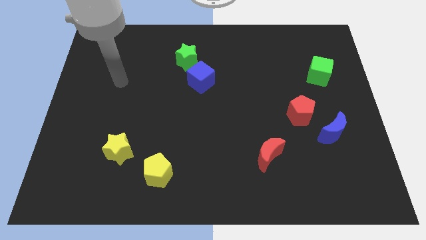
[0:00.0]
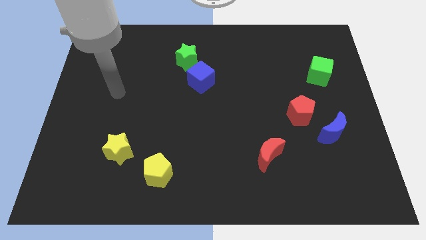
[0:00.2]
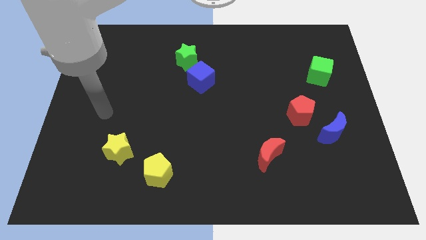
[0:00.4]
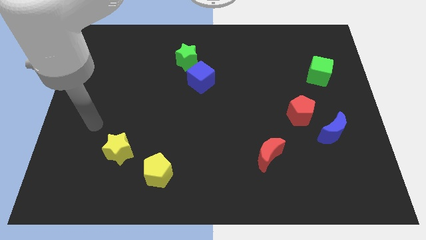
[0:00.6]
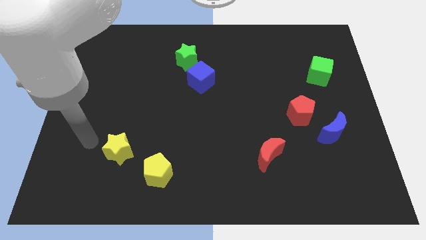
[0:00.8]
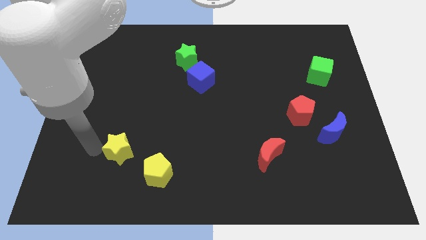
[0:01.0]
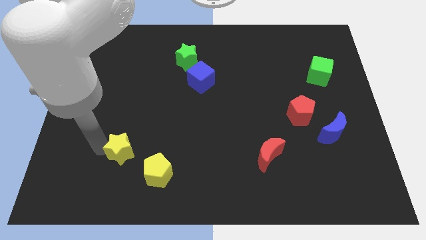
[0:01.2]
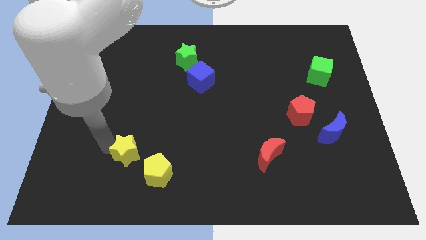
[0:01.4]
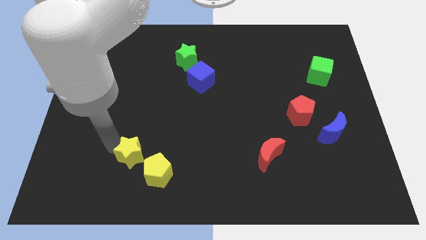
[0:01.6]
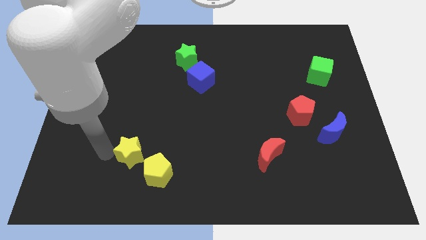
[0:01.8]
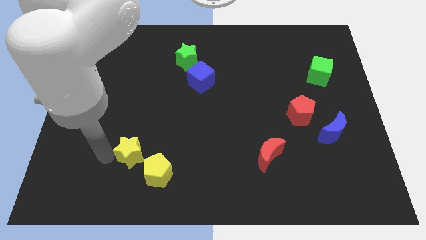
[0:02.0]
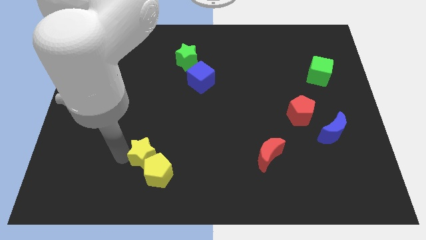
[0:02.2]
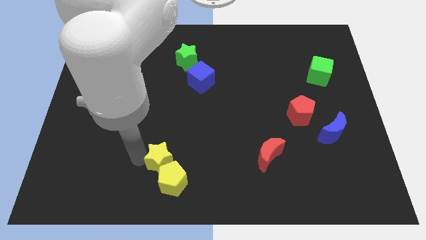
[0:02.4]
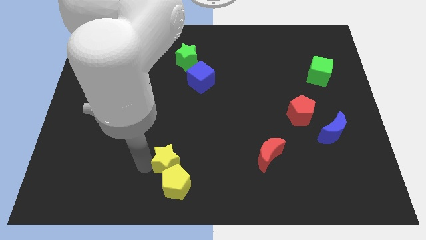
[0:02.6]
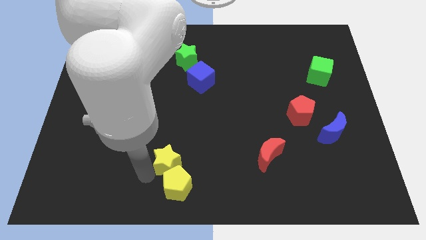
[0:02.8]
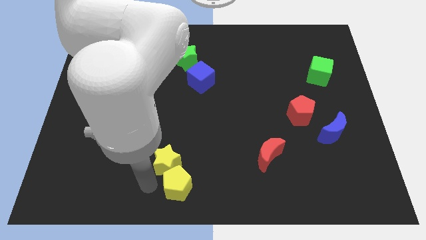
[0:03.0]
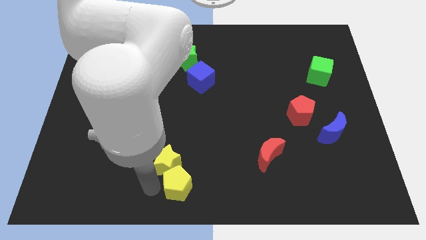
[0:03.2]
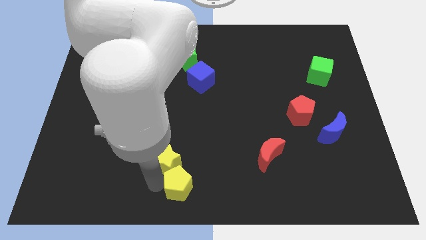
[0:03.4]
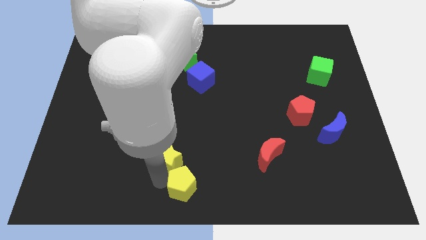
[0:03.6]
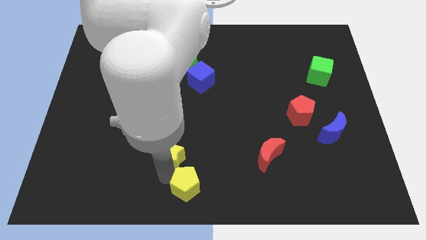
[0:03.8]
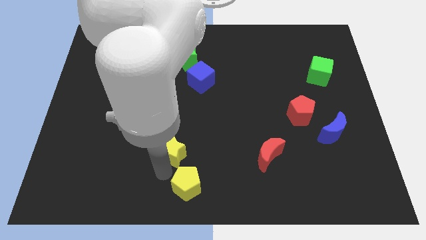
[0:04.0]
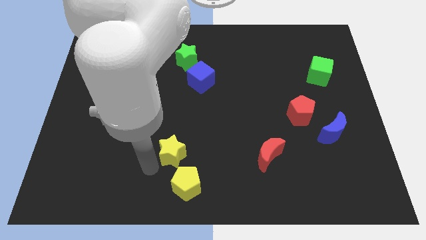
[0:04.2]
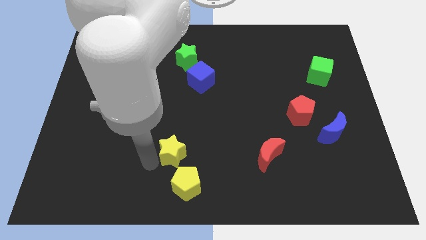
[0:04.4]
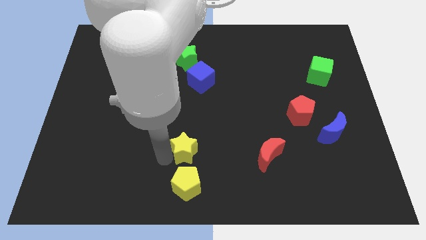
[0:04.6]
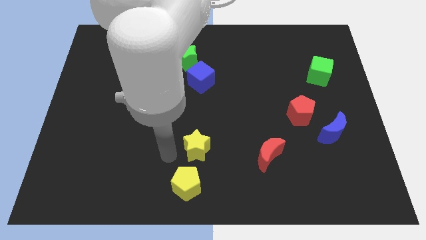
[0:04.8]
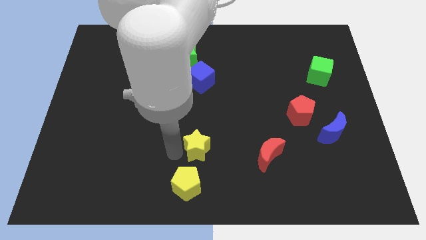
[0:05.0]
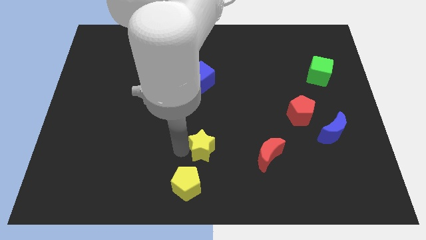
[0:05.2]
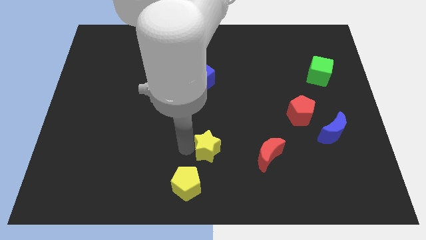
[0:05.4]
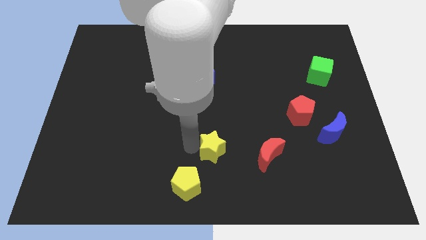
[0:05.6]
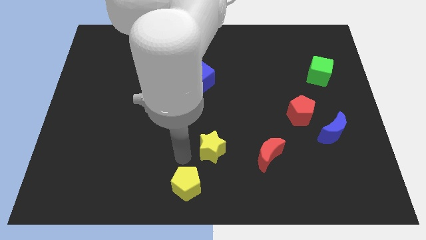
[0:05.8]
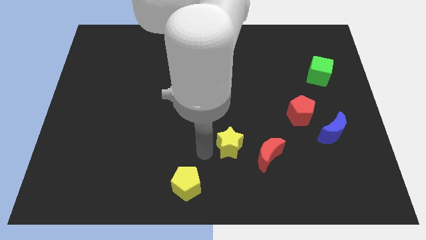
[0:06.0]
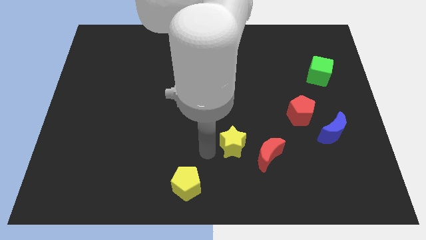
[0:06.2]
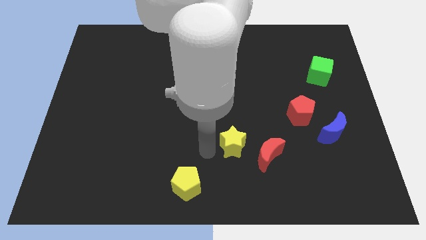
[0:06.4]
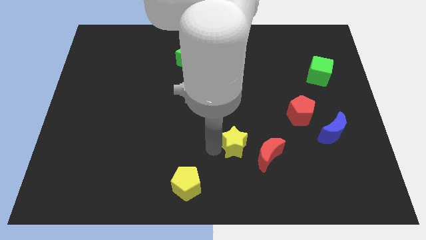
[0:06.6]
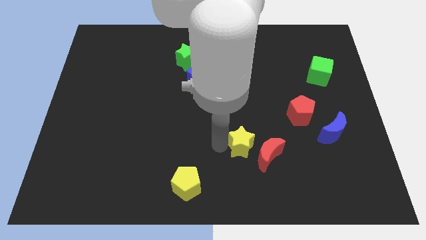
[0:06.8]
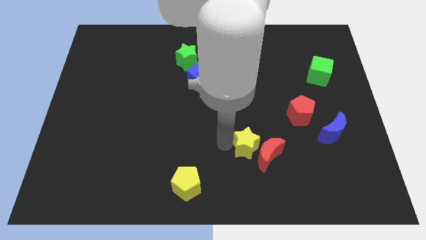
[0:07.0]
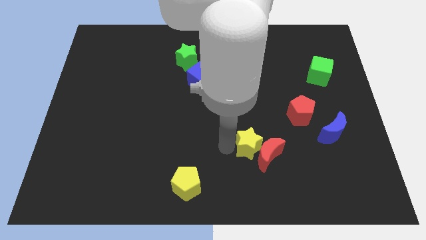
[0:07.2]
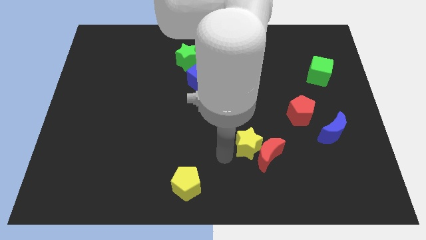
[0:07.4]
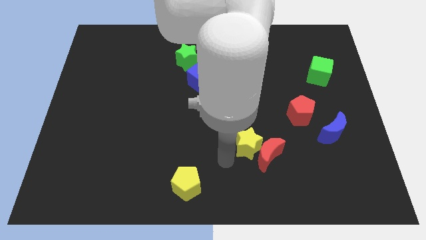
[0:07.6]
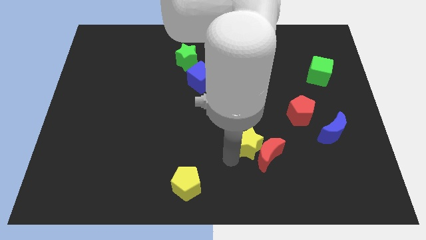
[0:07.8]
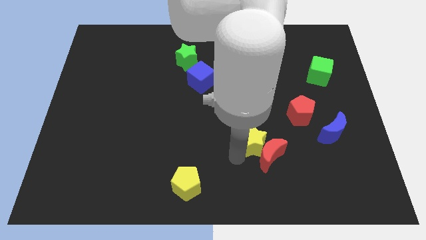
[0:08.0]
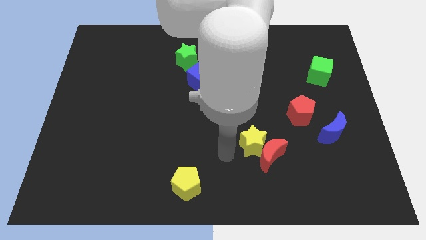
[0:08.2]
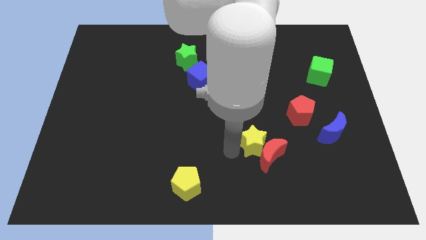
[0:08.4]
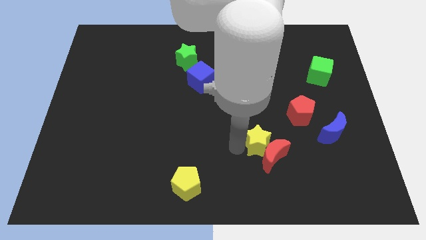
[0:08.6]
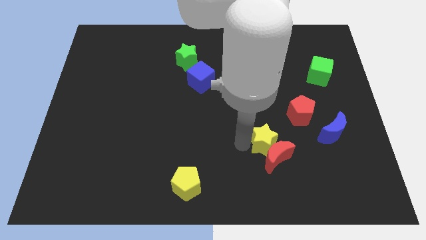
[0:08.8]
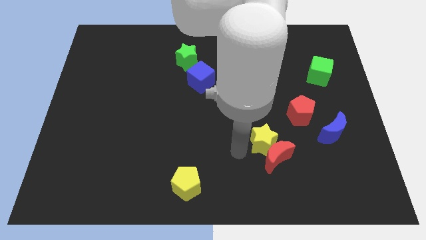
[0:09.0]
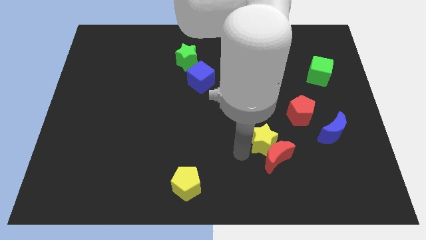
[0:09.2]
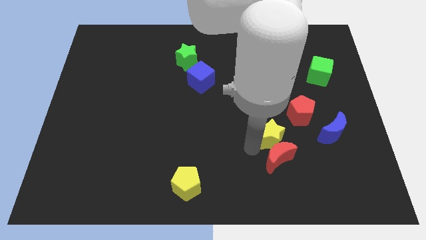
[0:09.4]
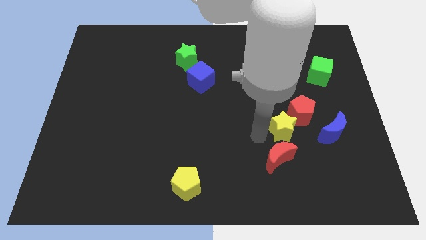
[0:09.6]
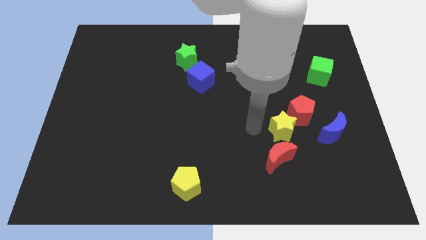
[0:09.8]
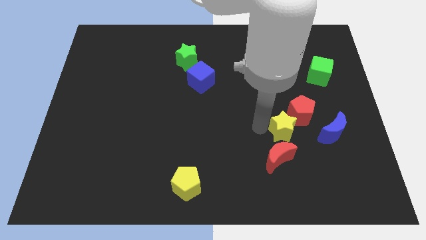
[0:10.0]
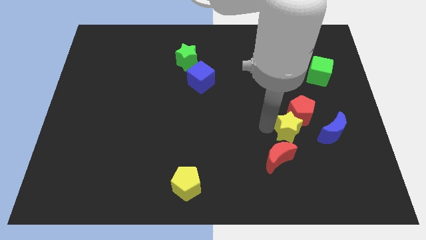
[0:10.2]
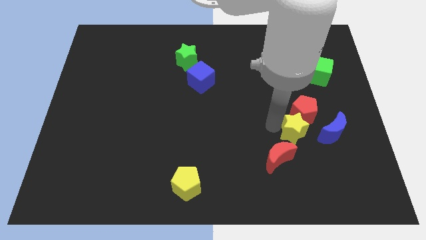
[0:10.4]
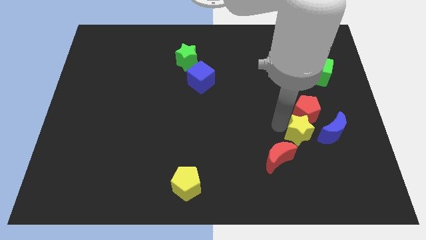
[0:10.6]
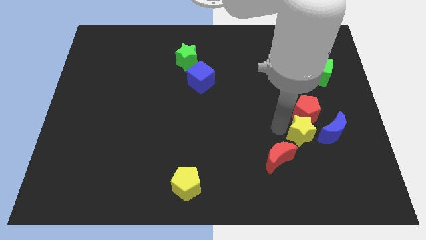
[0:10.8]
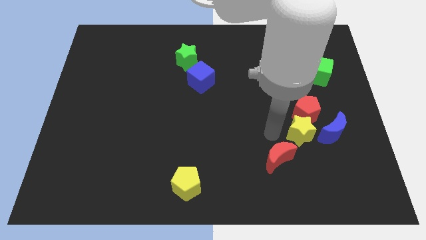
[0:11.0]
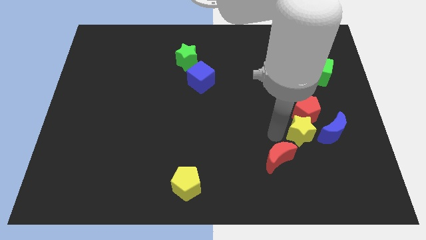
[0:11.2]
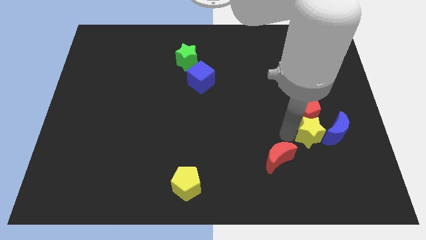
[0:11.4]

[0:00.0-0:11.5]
slide the yellow star next to the blue moon

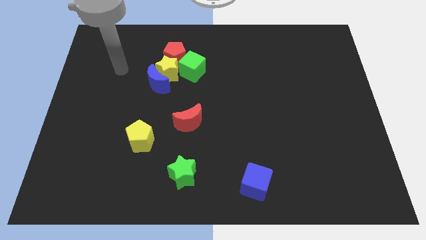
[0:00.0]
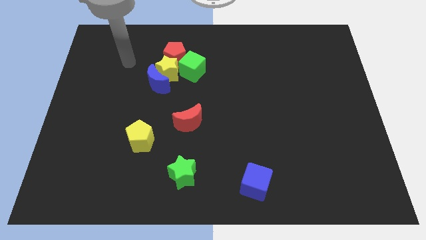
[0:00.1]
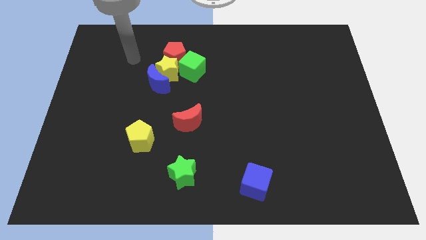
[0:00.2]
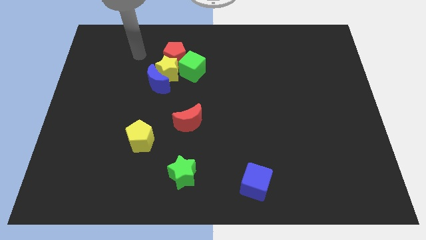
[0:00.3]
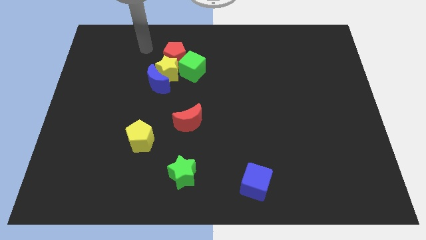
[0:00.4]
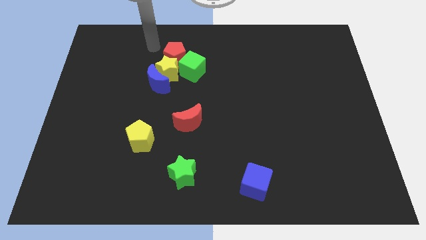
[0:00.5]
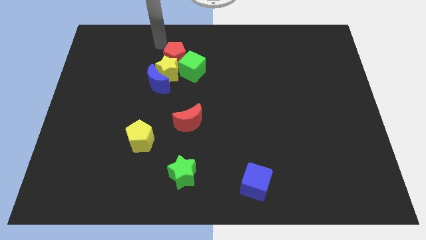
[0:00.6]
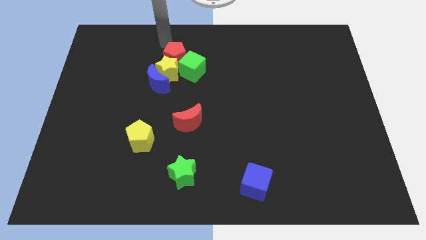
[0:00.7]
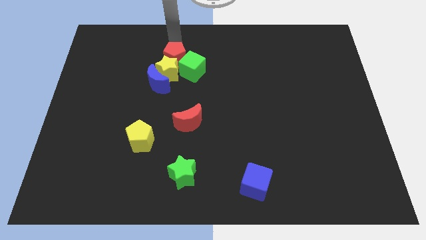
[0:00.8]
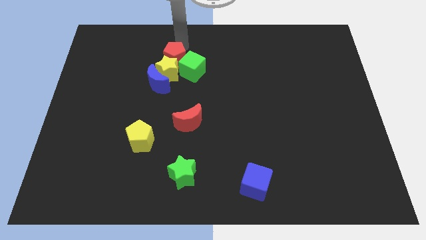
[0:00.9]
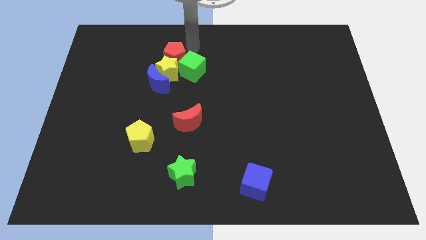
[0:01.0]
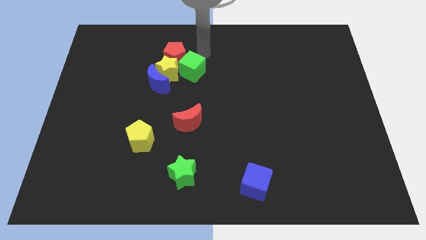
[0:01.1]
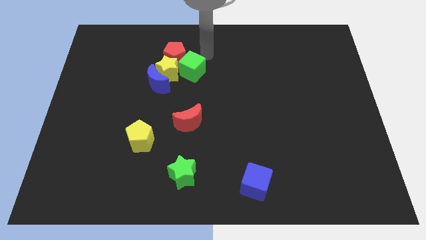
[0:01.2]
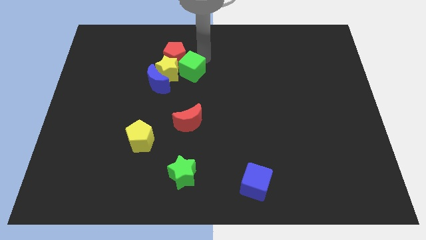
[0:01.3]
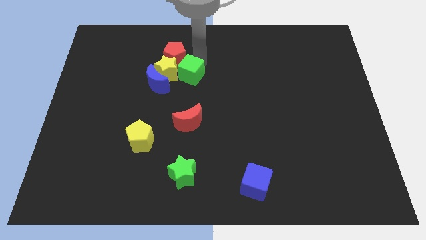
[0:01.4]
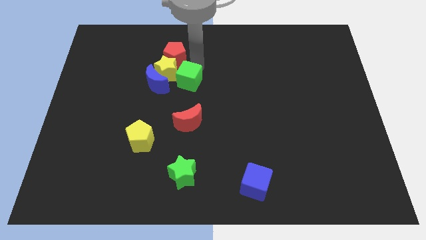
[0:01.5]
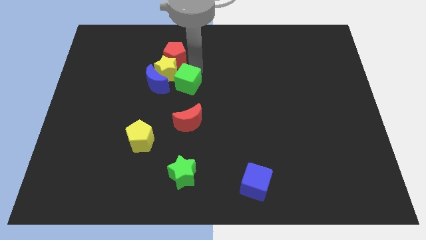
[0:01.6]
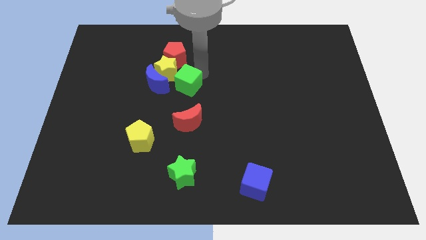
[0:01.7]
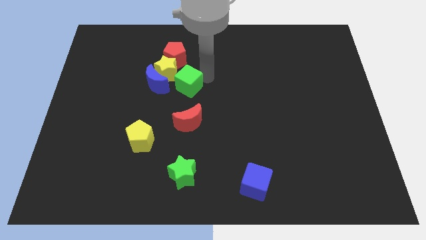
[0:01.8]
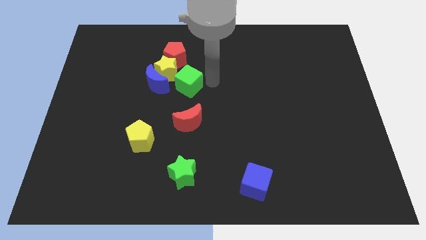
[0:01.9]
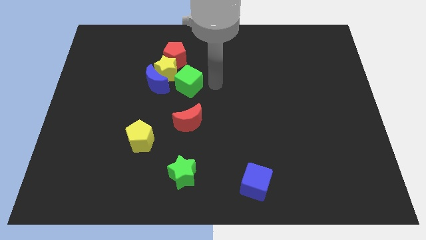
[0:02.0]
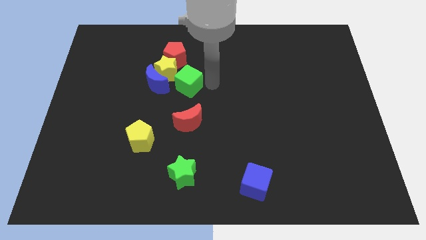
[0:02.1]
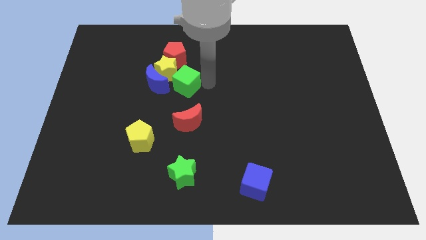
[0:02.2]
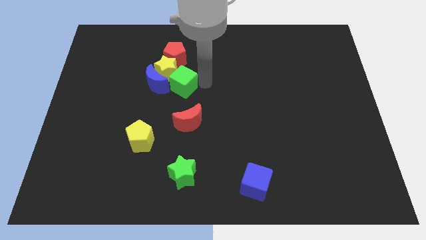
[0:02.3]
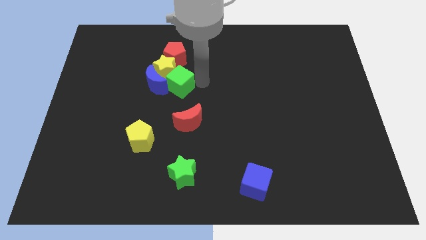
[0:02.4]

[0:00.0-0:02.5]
put the green cube to the blue moon
